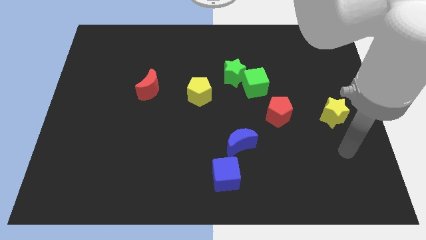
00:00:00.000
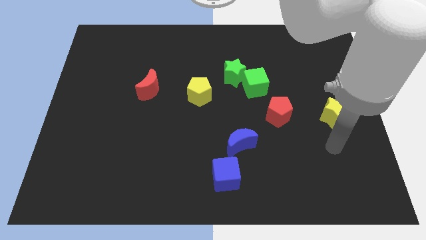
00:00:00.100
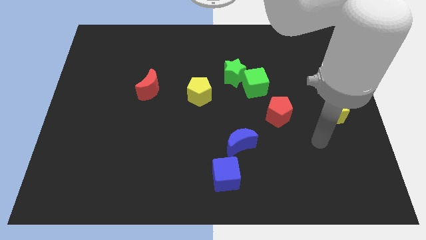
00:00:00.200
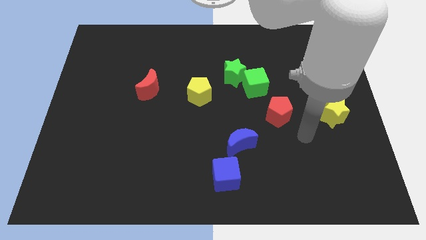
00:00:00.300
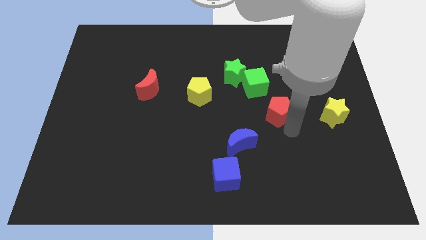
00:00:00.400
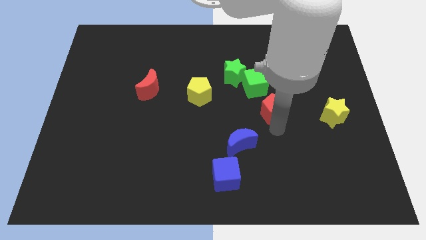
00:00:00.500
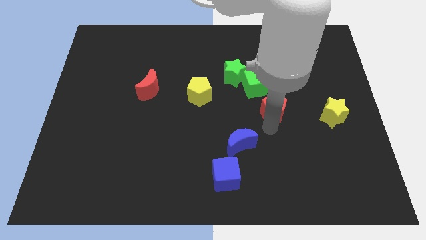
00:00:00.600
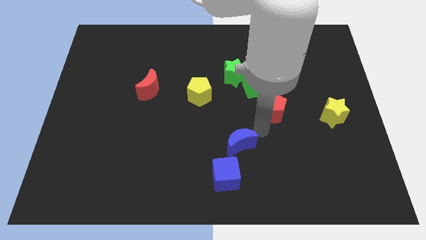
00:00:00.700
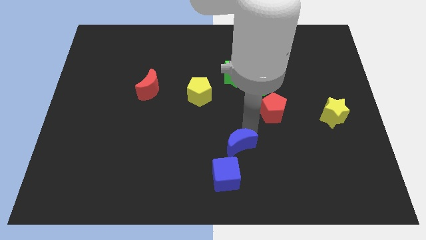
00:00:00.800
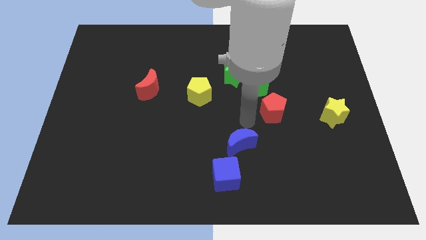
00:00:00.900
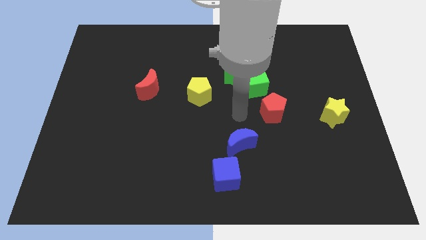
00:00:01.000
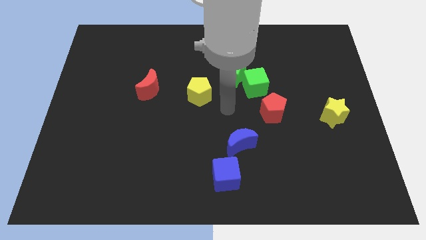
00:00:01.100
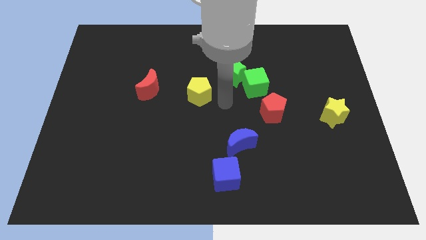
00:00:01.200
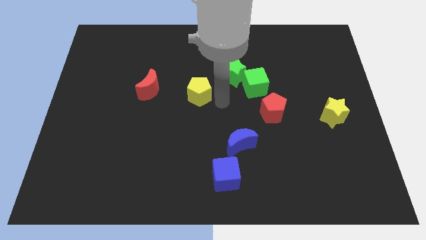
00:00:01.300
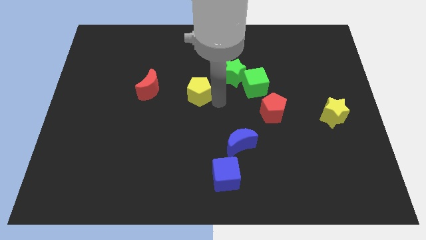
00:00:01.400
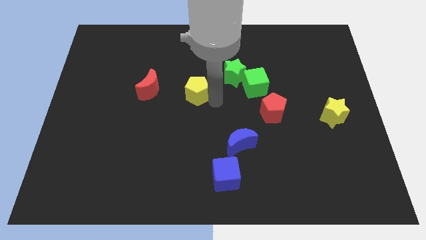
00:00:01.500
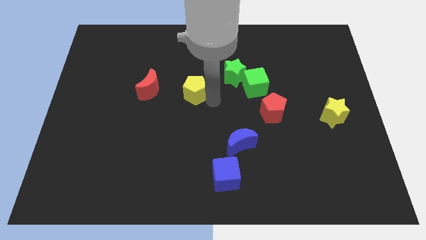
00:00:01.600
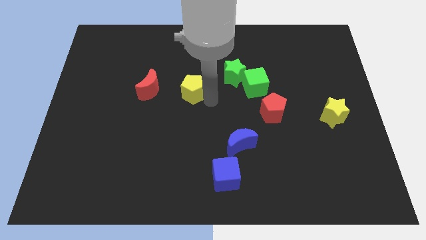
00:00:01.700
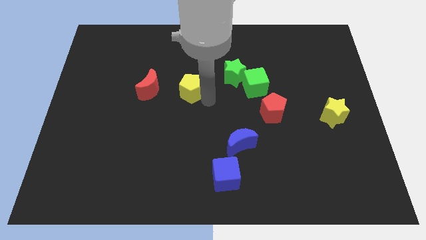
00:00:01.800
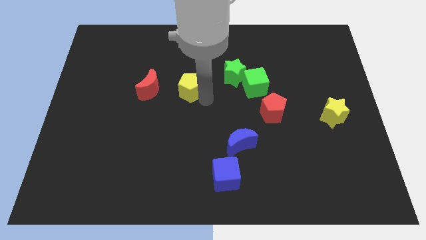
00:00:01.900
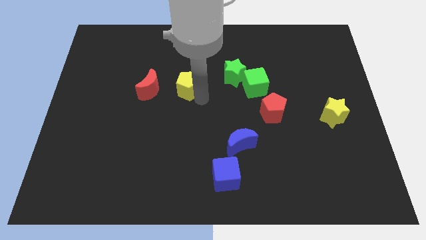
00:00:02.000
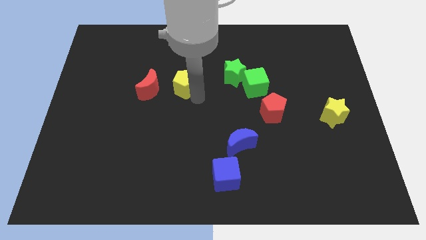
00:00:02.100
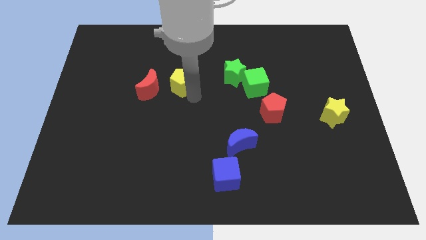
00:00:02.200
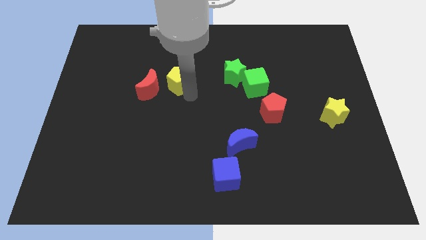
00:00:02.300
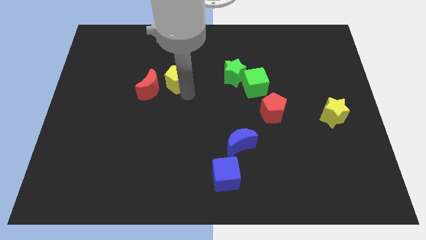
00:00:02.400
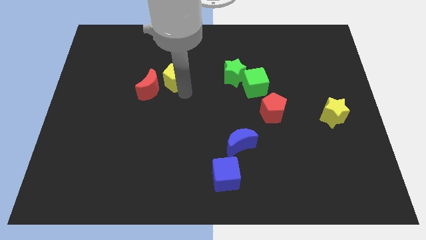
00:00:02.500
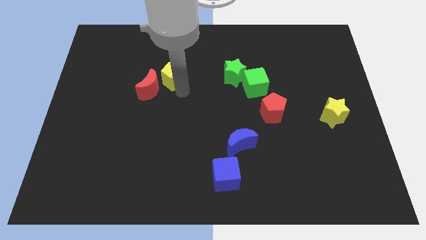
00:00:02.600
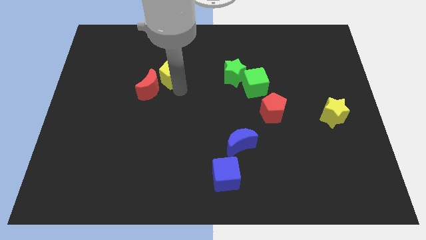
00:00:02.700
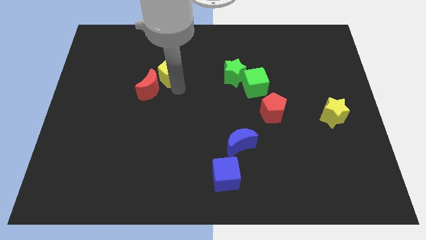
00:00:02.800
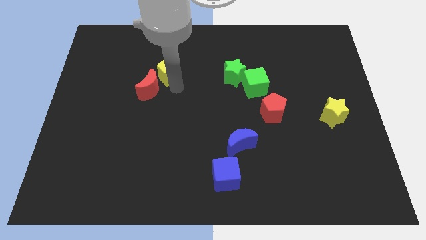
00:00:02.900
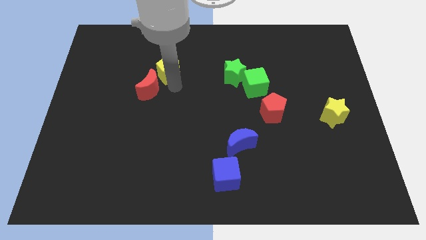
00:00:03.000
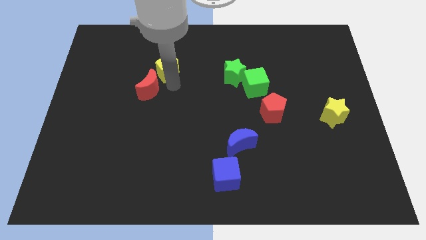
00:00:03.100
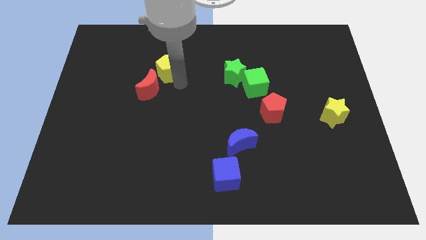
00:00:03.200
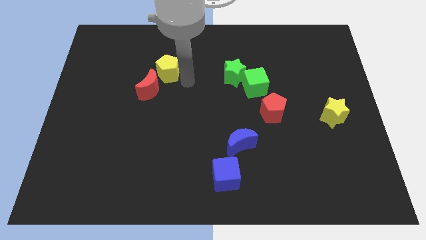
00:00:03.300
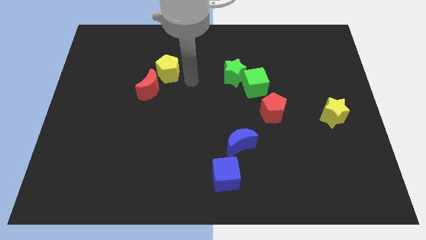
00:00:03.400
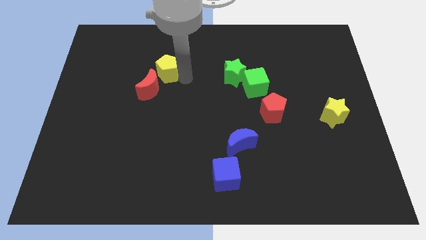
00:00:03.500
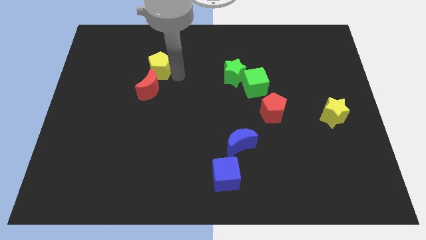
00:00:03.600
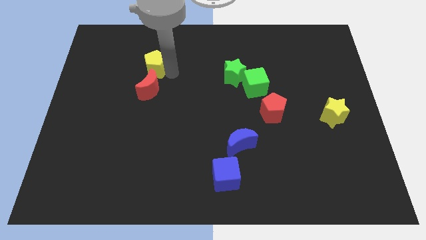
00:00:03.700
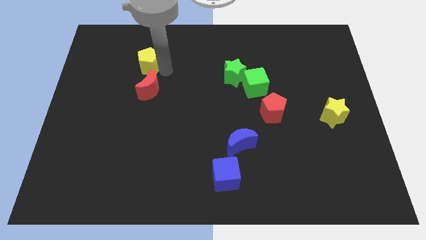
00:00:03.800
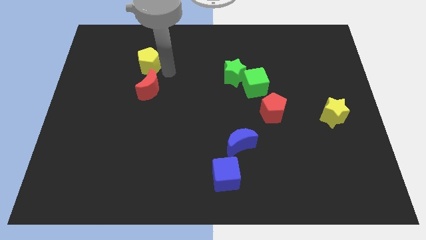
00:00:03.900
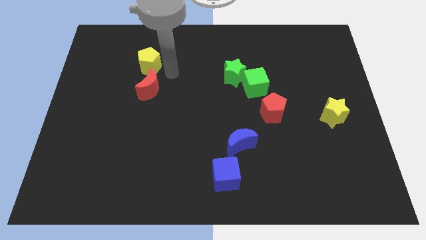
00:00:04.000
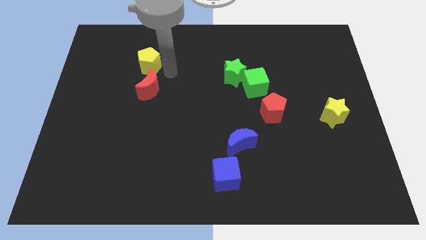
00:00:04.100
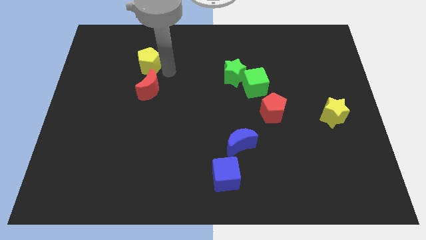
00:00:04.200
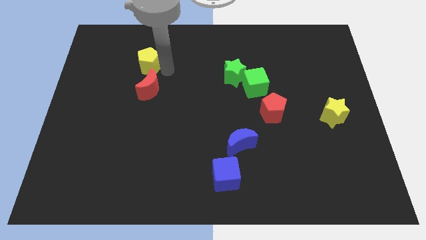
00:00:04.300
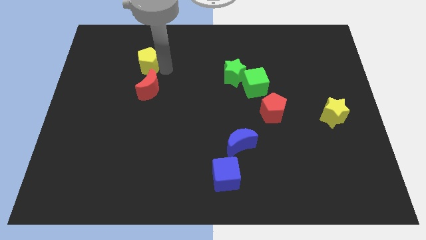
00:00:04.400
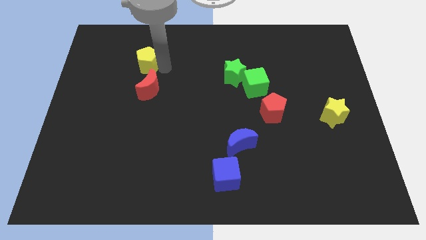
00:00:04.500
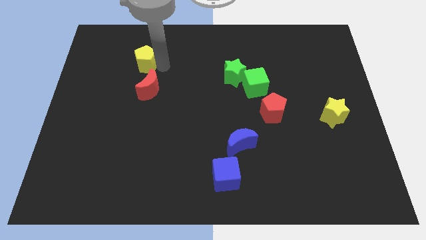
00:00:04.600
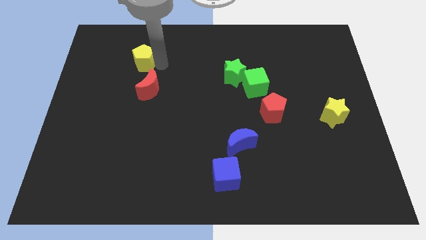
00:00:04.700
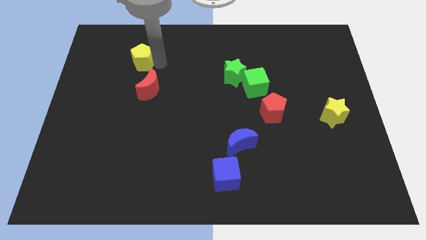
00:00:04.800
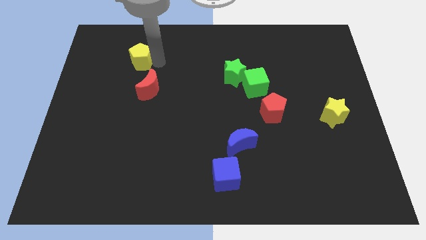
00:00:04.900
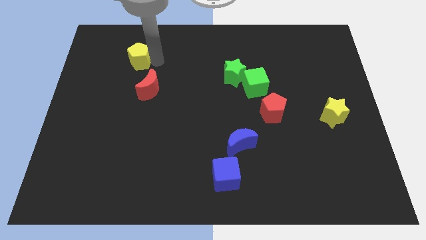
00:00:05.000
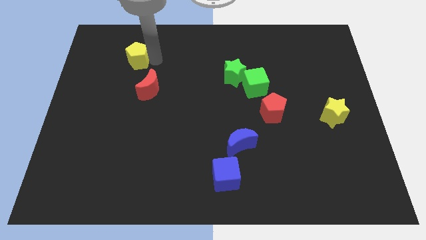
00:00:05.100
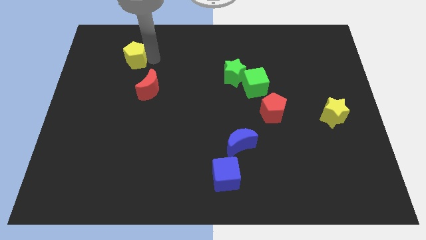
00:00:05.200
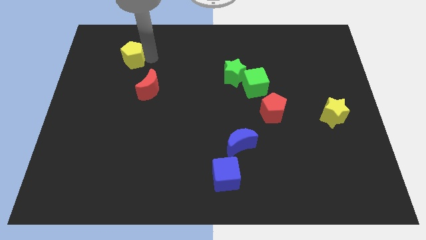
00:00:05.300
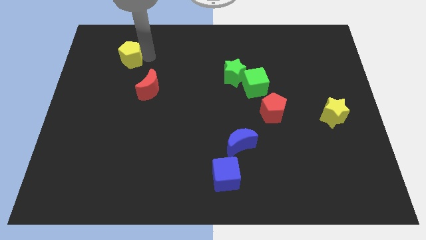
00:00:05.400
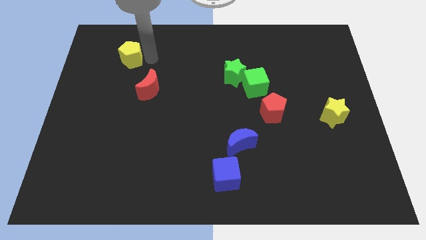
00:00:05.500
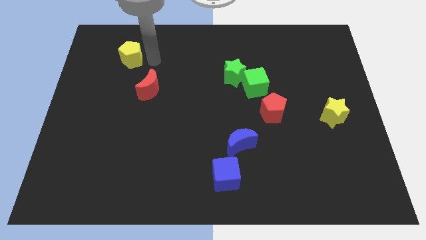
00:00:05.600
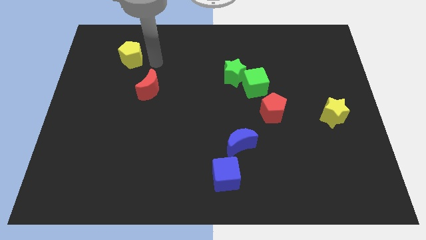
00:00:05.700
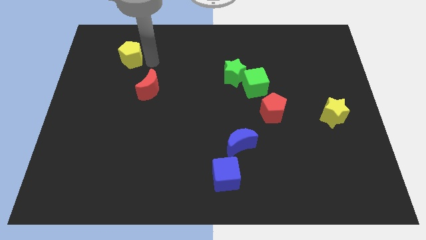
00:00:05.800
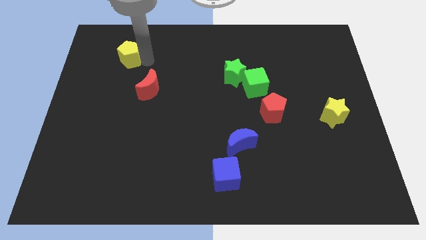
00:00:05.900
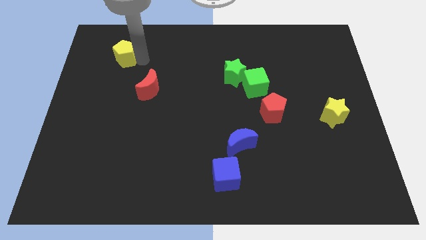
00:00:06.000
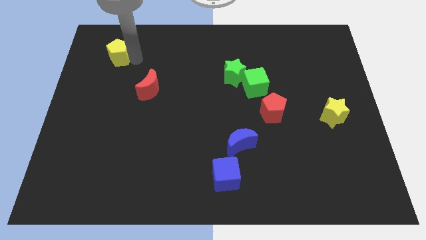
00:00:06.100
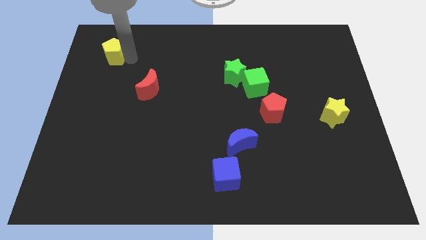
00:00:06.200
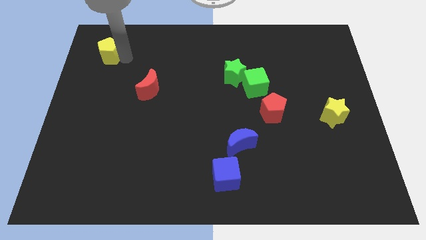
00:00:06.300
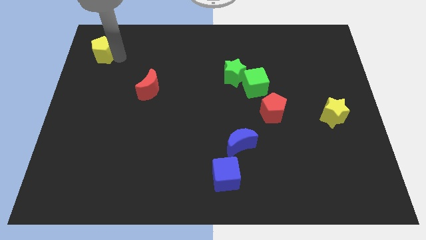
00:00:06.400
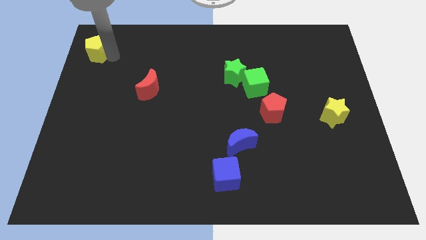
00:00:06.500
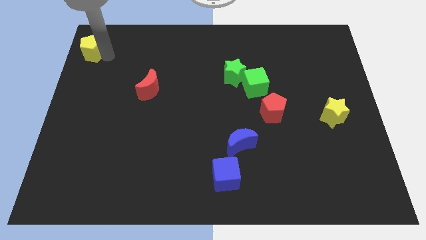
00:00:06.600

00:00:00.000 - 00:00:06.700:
move the yellow pentagon to the top left

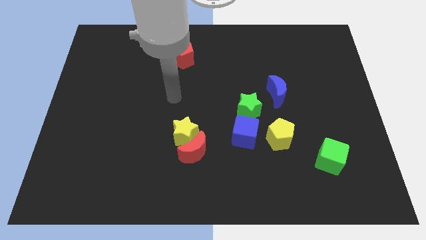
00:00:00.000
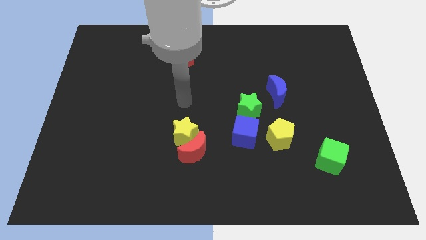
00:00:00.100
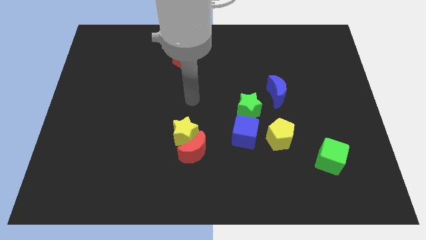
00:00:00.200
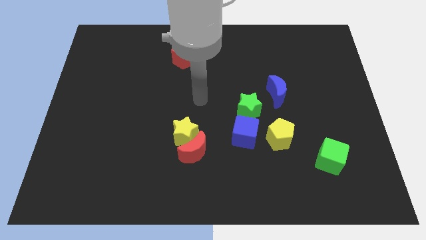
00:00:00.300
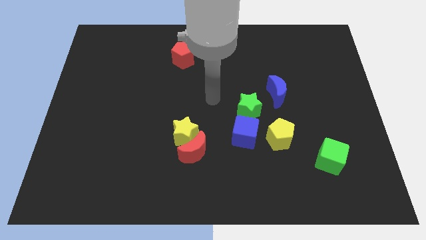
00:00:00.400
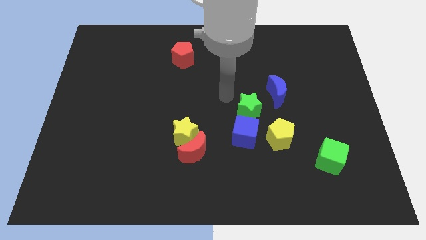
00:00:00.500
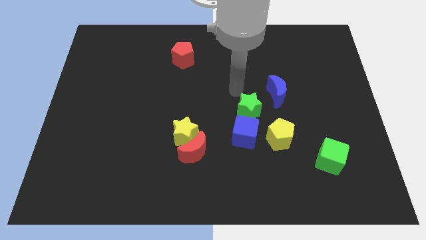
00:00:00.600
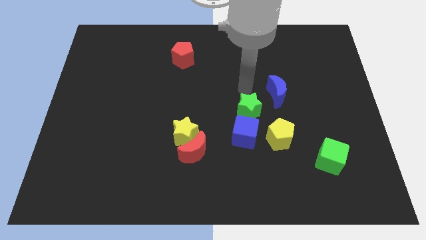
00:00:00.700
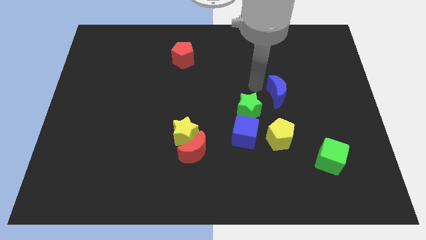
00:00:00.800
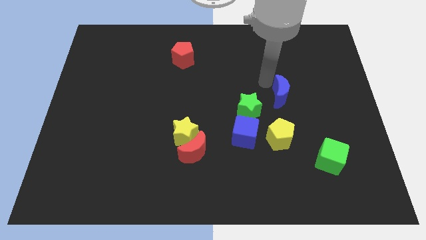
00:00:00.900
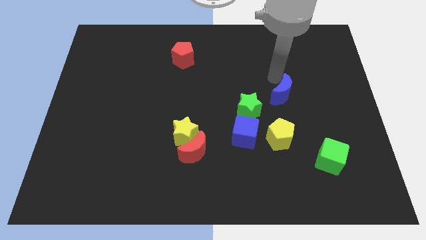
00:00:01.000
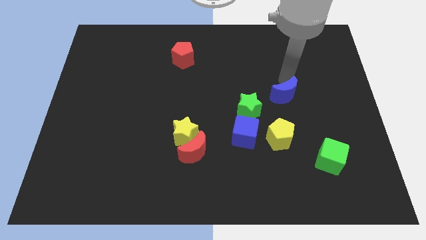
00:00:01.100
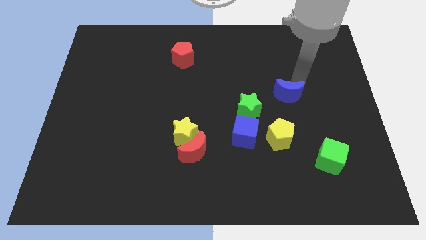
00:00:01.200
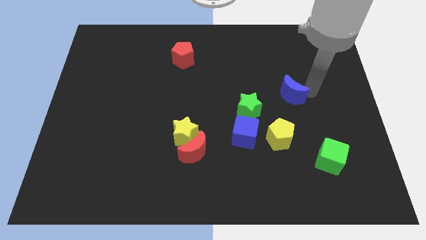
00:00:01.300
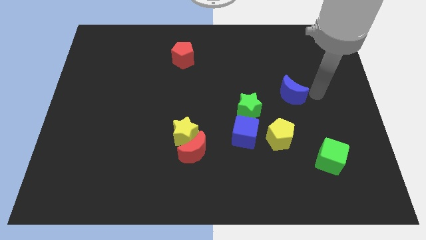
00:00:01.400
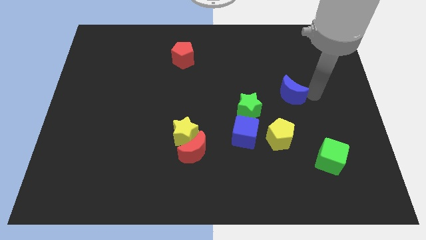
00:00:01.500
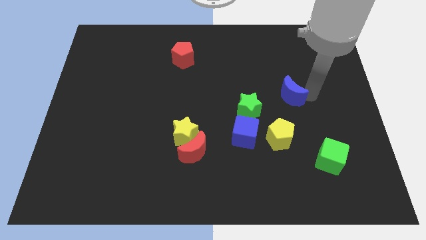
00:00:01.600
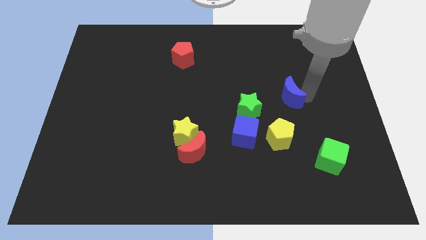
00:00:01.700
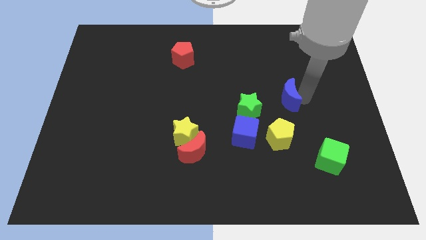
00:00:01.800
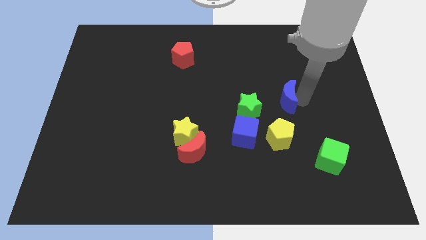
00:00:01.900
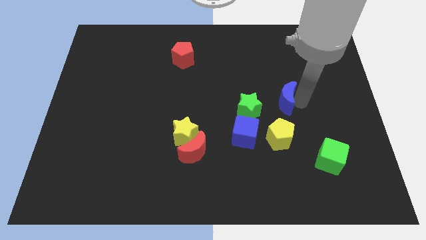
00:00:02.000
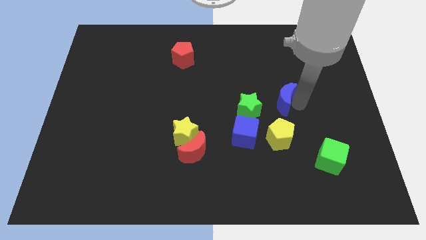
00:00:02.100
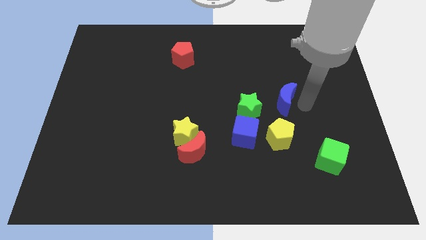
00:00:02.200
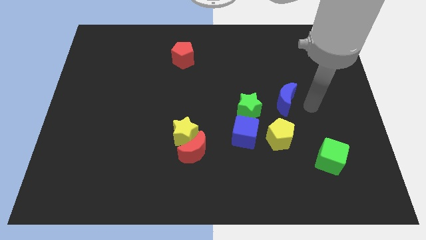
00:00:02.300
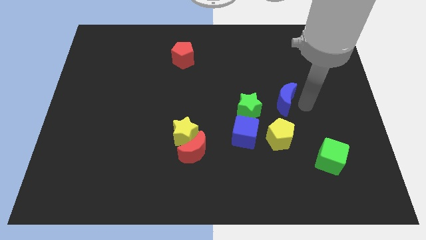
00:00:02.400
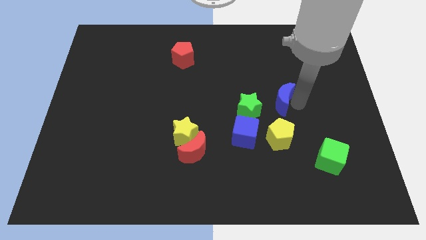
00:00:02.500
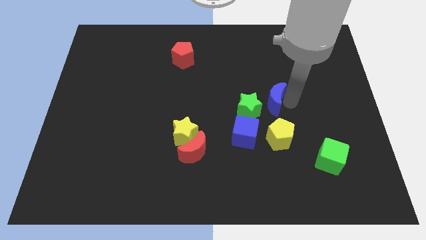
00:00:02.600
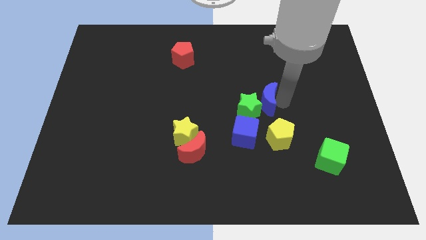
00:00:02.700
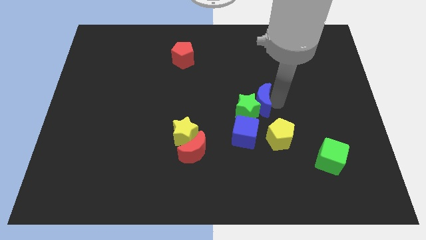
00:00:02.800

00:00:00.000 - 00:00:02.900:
move the blue moon to the middle
